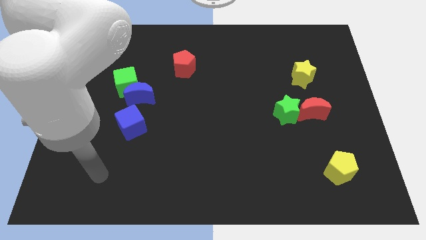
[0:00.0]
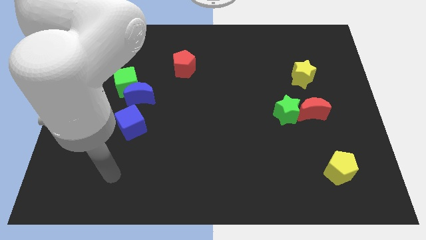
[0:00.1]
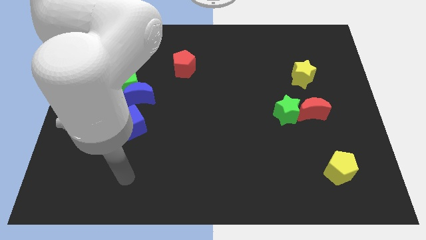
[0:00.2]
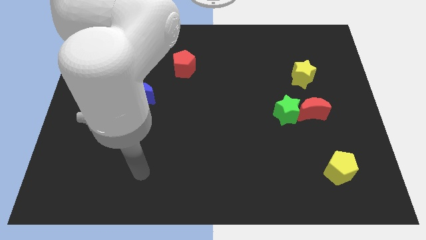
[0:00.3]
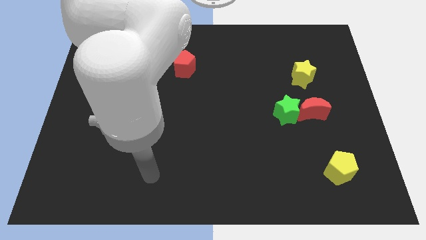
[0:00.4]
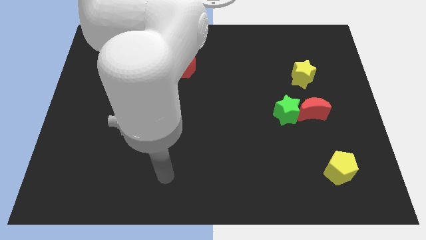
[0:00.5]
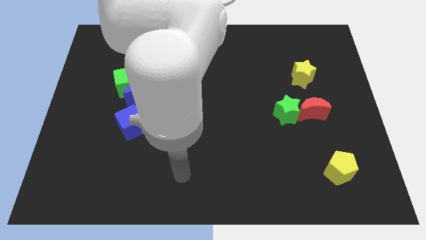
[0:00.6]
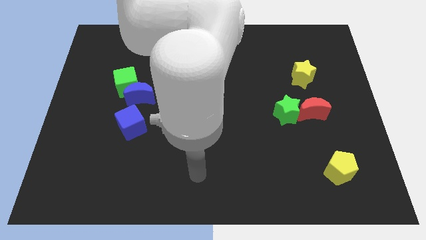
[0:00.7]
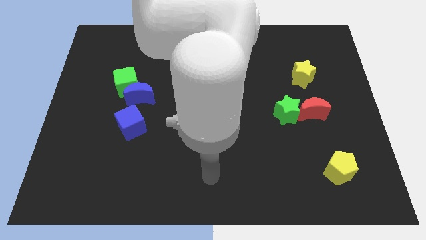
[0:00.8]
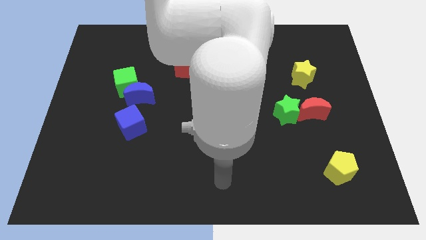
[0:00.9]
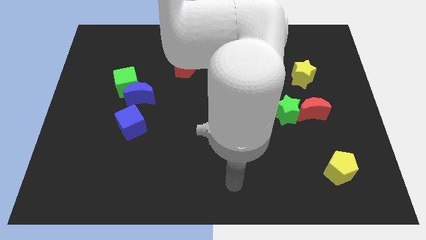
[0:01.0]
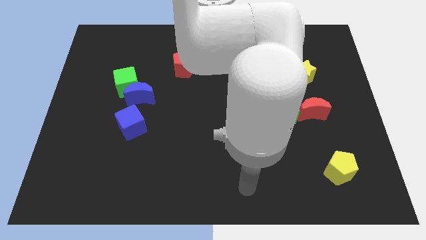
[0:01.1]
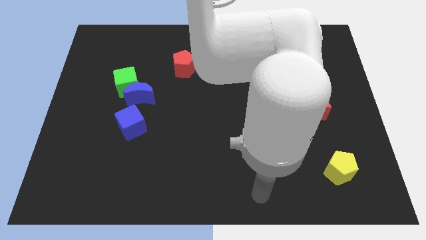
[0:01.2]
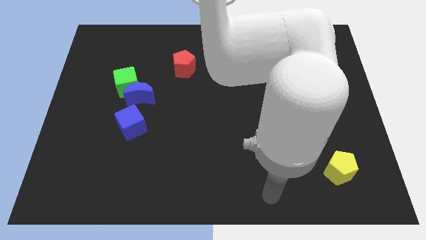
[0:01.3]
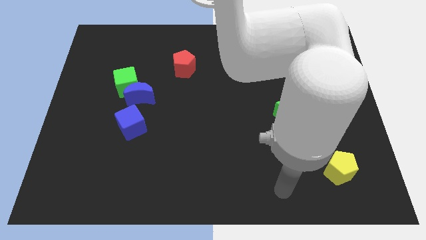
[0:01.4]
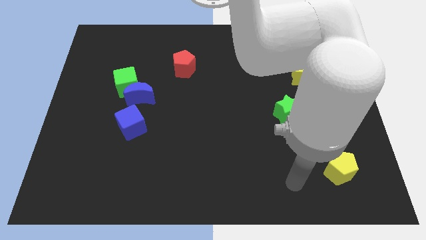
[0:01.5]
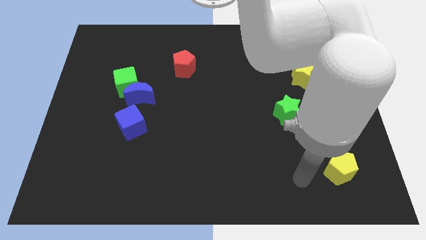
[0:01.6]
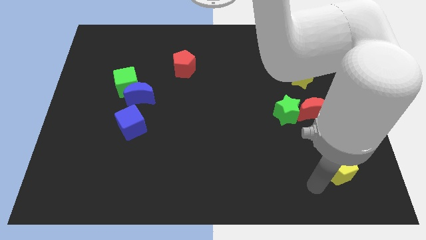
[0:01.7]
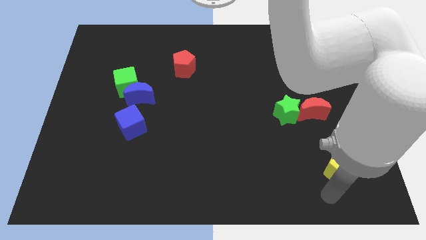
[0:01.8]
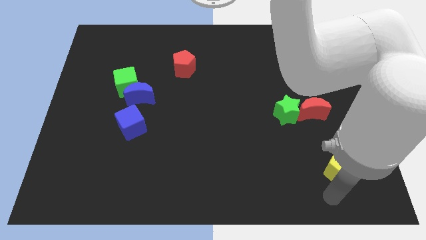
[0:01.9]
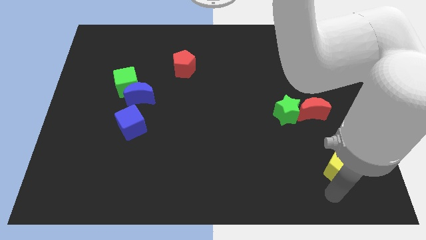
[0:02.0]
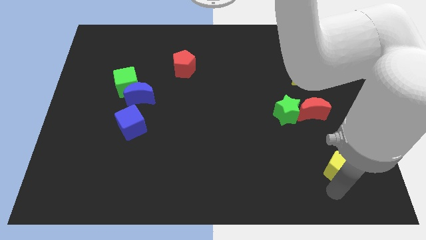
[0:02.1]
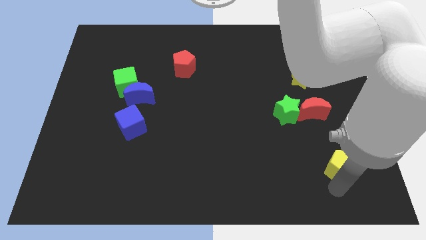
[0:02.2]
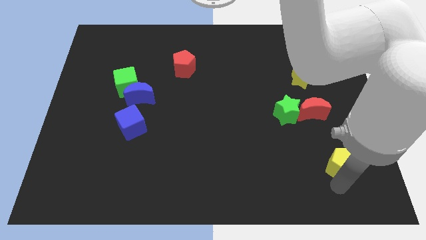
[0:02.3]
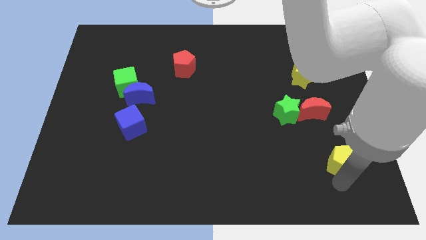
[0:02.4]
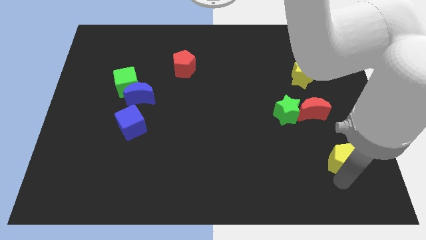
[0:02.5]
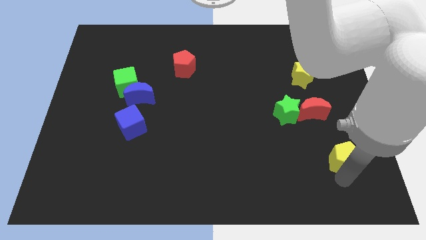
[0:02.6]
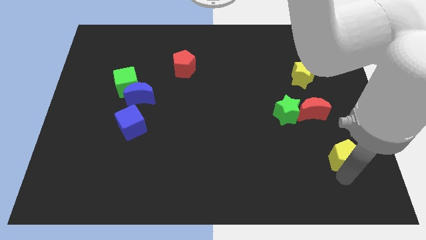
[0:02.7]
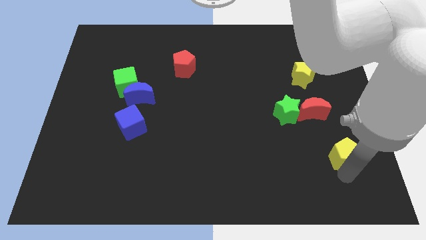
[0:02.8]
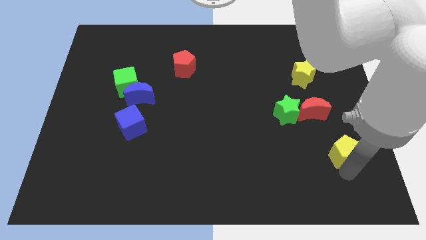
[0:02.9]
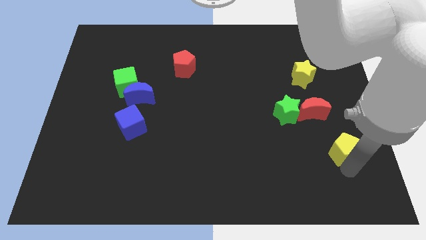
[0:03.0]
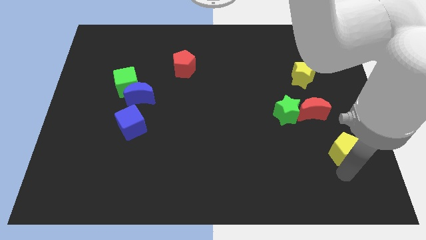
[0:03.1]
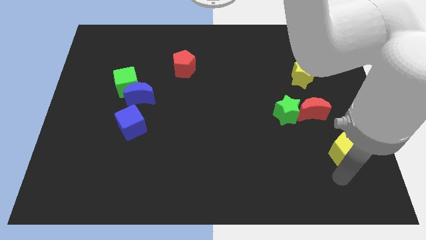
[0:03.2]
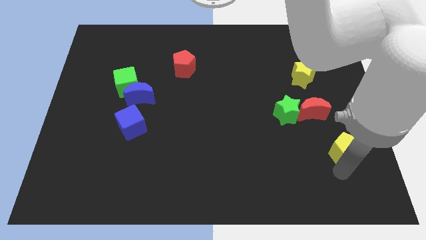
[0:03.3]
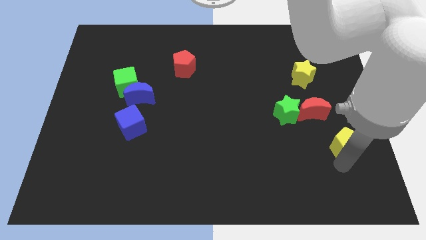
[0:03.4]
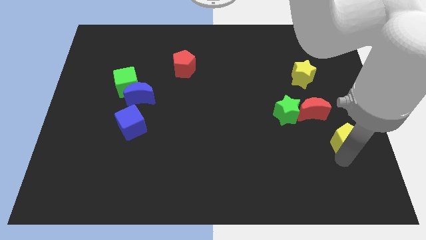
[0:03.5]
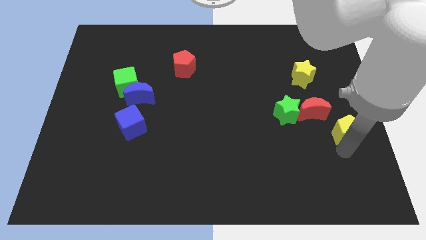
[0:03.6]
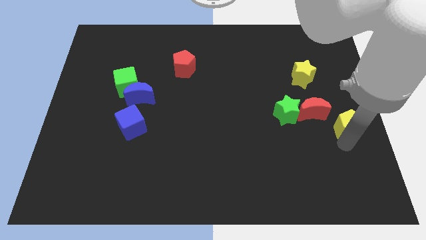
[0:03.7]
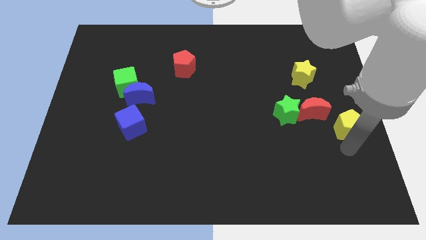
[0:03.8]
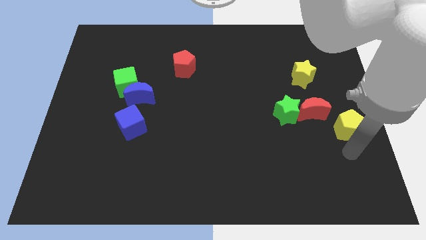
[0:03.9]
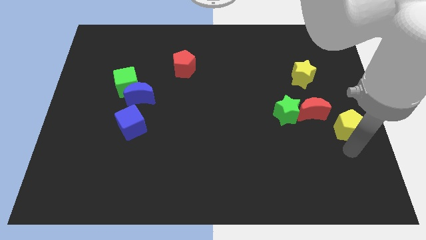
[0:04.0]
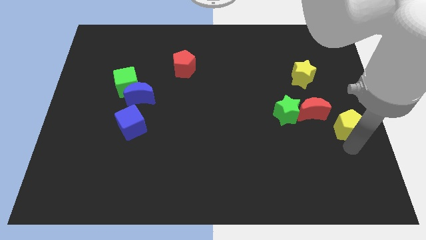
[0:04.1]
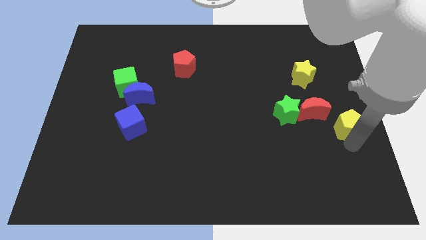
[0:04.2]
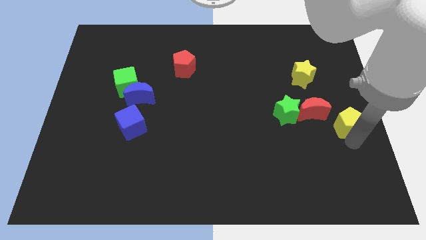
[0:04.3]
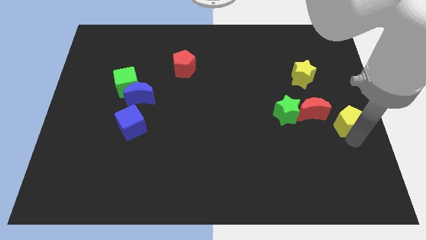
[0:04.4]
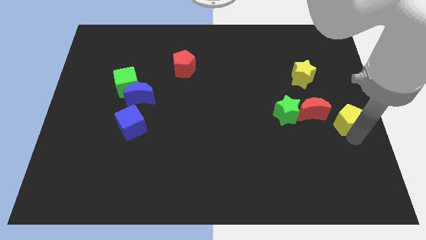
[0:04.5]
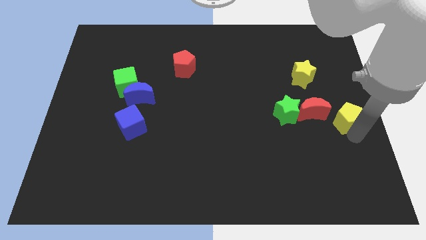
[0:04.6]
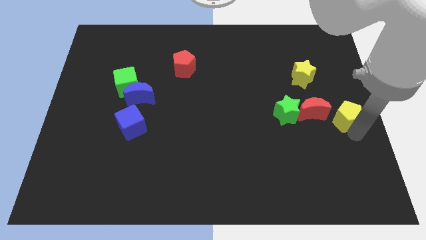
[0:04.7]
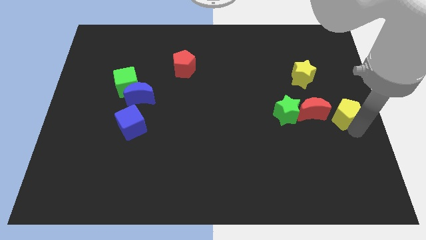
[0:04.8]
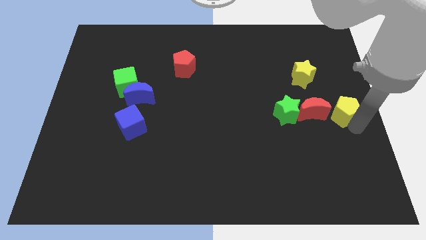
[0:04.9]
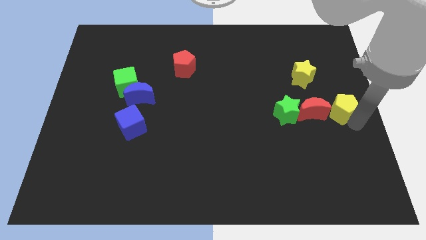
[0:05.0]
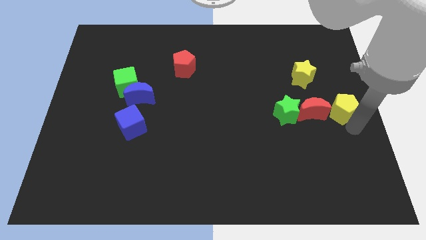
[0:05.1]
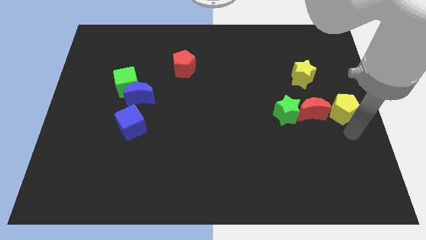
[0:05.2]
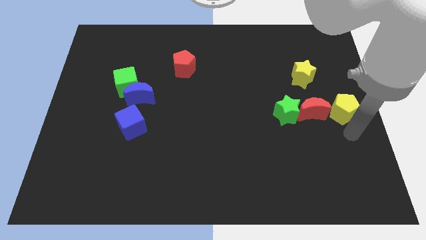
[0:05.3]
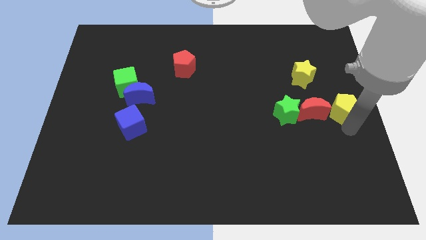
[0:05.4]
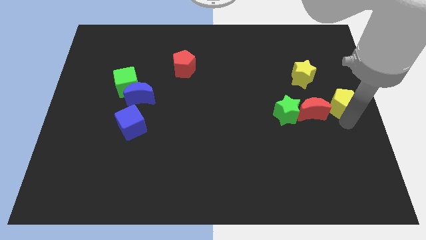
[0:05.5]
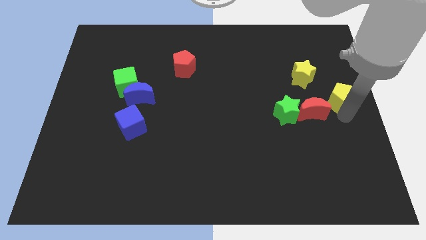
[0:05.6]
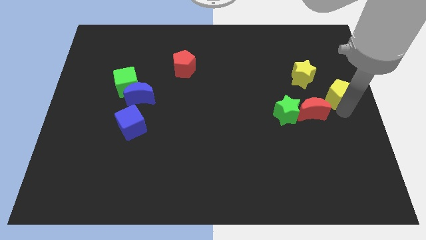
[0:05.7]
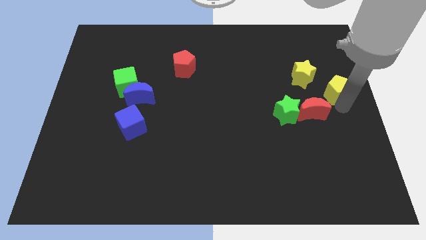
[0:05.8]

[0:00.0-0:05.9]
slide the yellow pentagon up

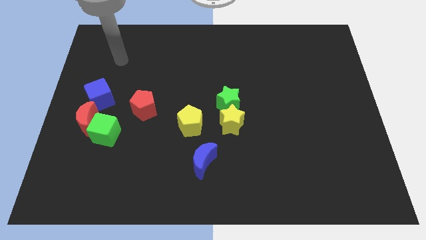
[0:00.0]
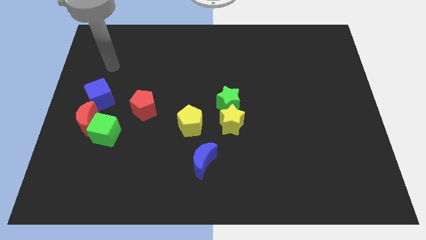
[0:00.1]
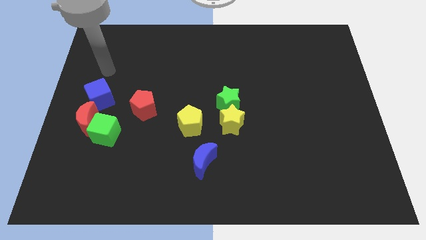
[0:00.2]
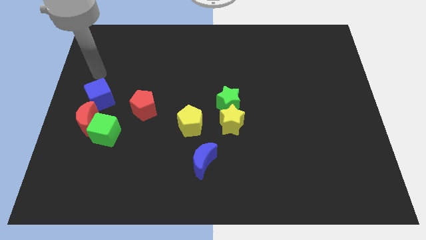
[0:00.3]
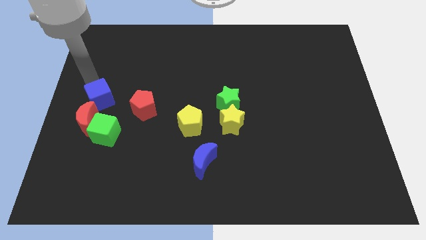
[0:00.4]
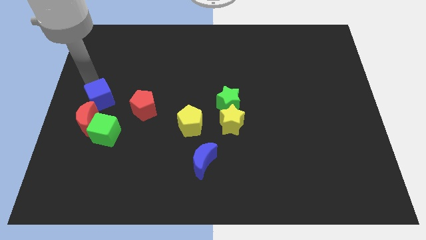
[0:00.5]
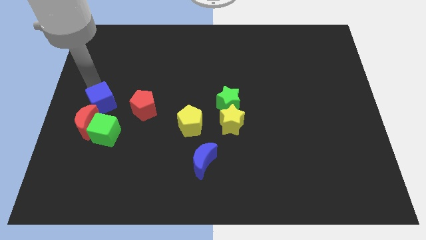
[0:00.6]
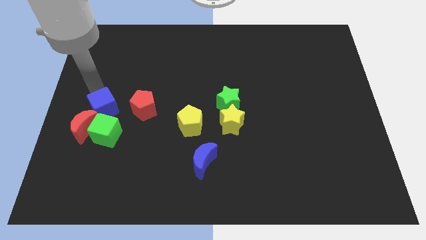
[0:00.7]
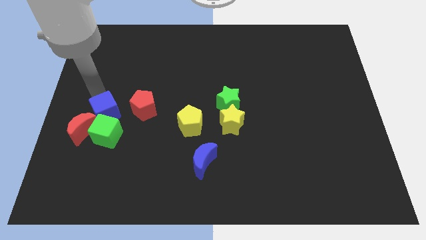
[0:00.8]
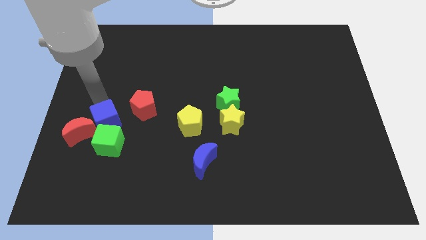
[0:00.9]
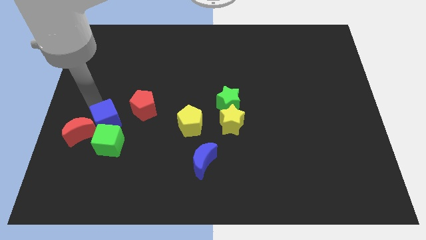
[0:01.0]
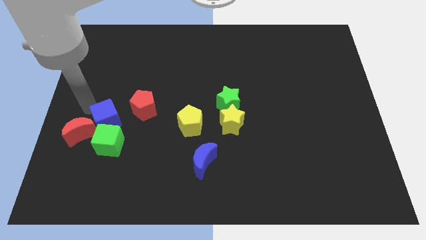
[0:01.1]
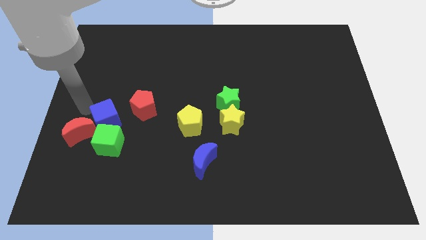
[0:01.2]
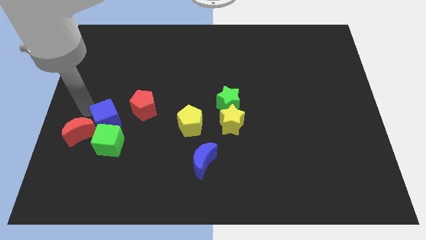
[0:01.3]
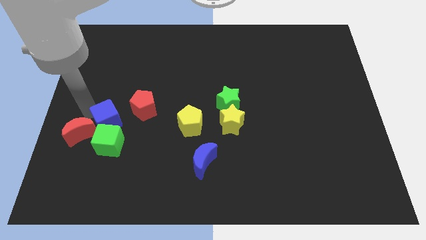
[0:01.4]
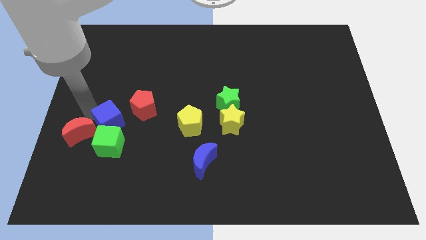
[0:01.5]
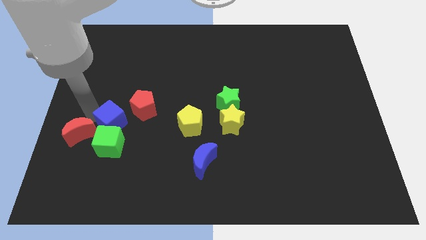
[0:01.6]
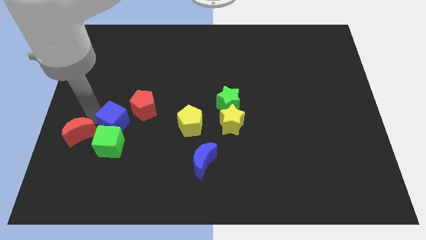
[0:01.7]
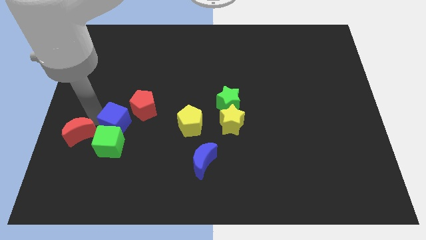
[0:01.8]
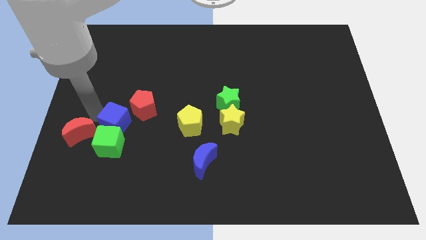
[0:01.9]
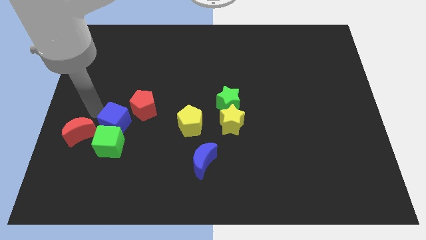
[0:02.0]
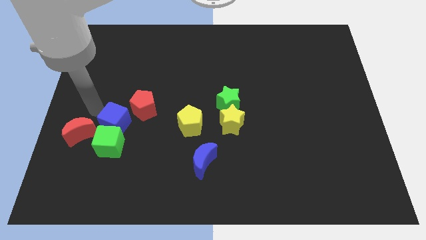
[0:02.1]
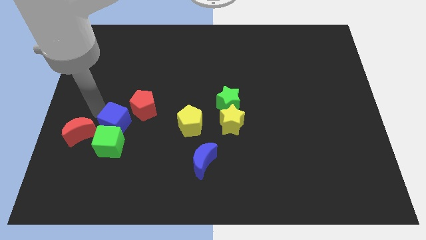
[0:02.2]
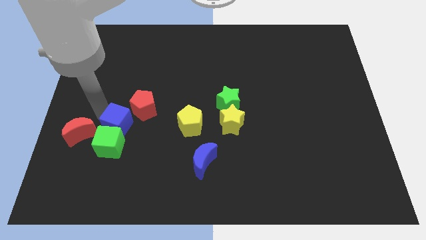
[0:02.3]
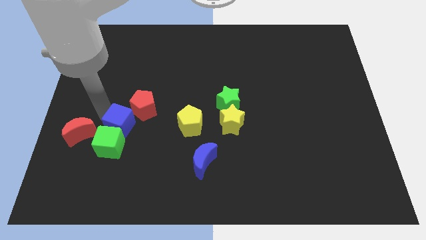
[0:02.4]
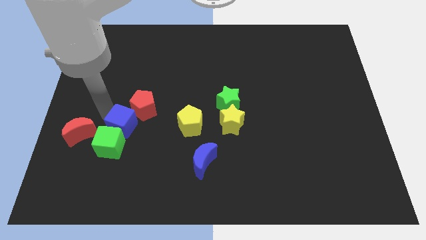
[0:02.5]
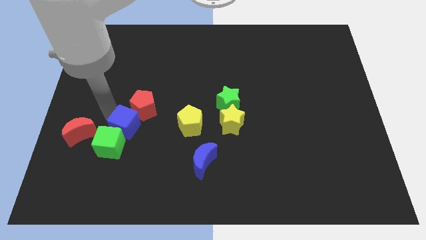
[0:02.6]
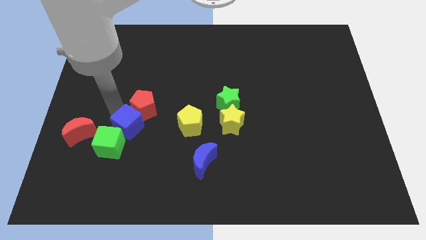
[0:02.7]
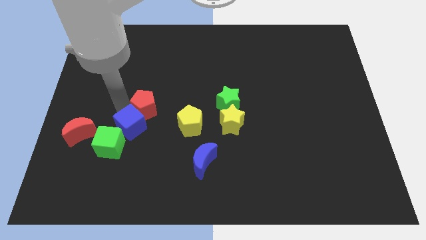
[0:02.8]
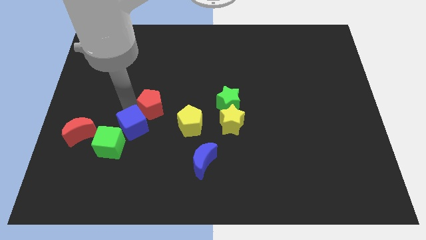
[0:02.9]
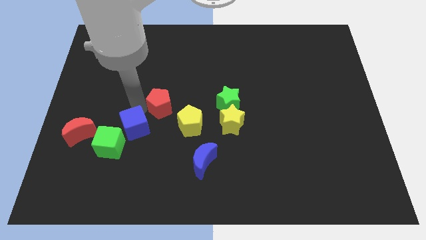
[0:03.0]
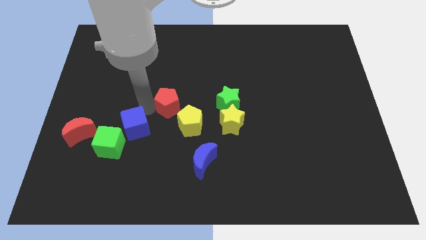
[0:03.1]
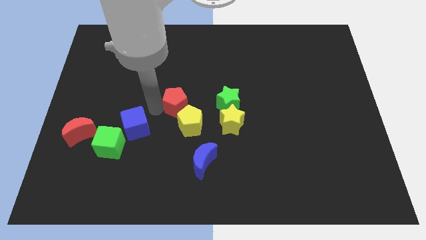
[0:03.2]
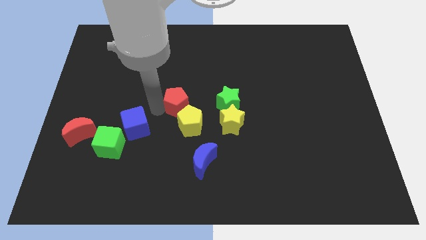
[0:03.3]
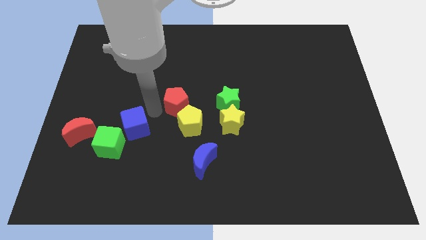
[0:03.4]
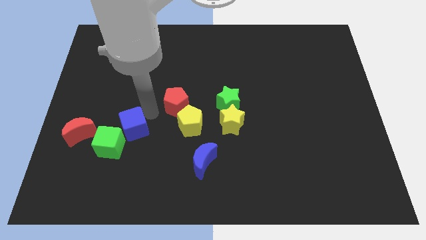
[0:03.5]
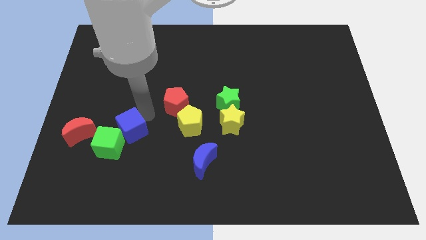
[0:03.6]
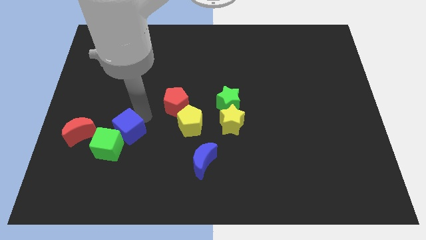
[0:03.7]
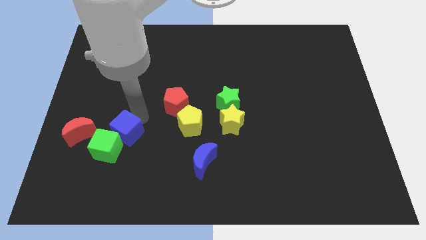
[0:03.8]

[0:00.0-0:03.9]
slightly move the blue cube down
